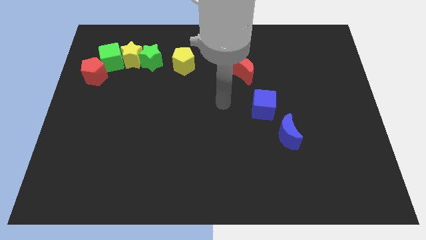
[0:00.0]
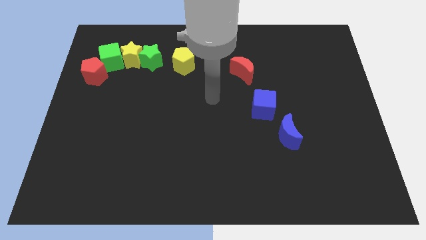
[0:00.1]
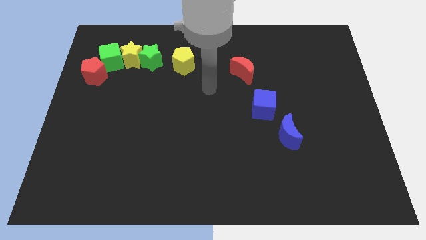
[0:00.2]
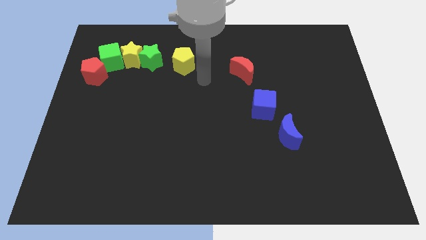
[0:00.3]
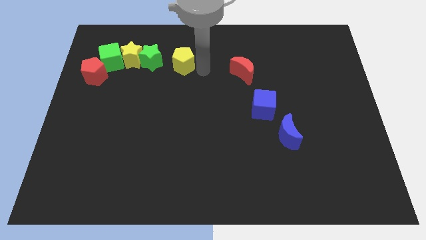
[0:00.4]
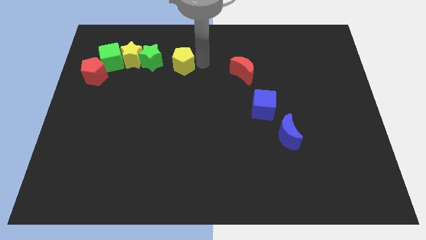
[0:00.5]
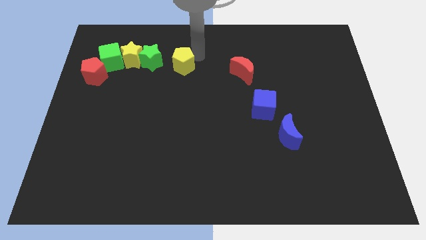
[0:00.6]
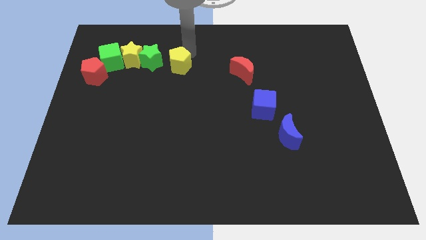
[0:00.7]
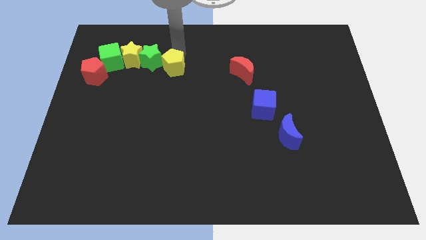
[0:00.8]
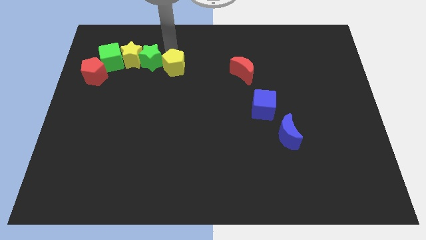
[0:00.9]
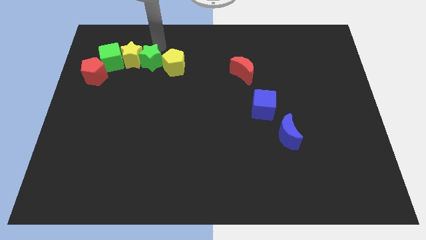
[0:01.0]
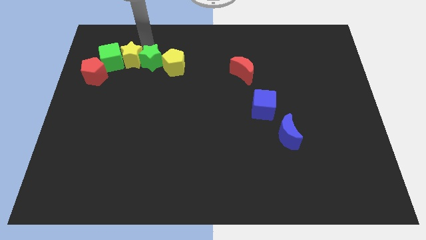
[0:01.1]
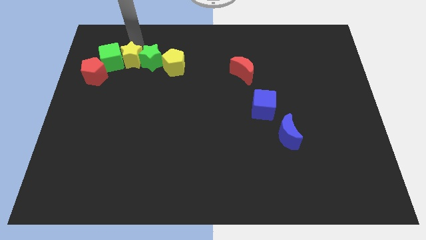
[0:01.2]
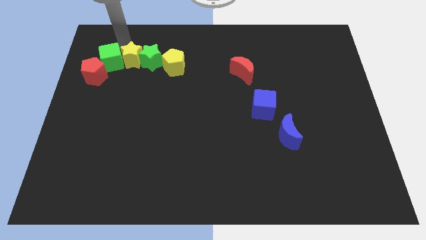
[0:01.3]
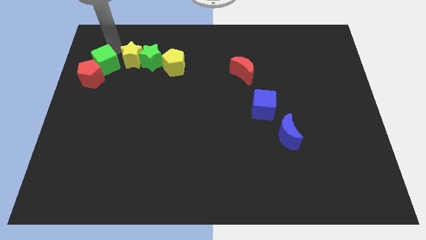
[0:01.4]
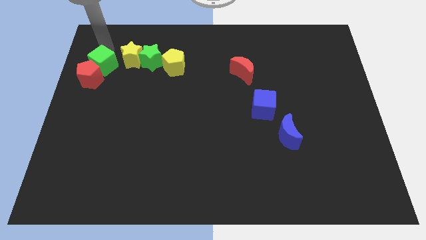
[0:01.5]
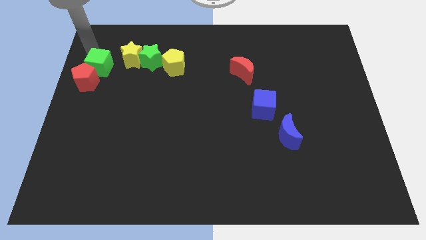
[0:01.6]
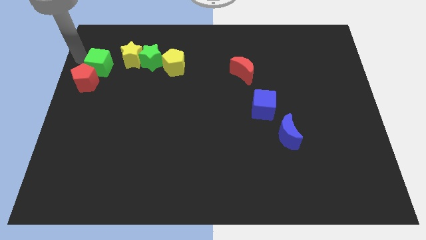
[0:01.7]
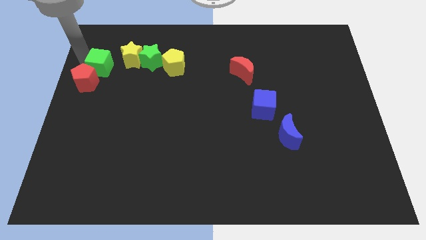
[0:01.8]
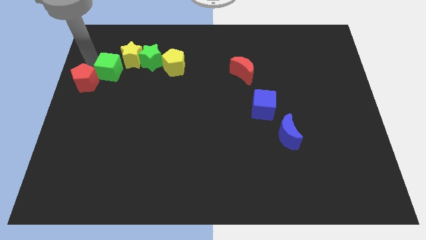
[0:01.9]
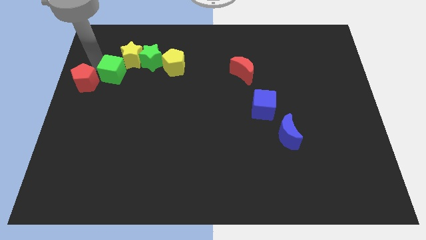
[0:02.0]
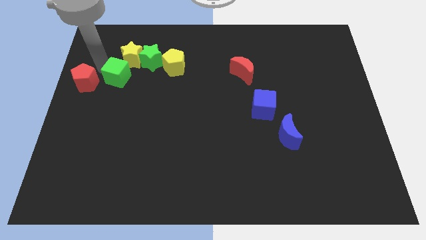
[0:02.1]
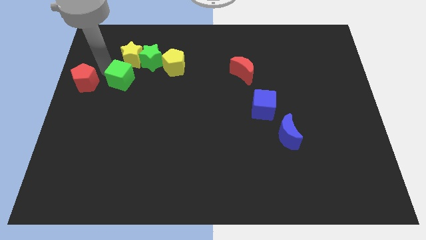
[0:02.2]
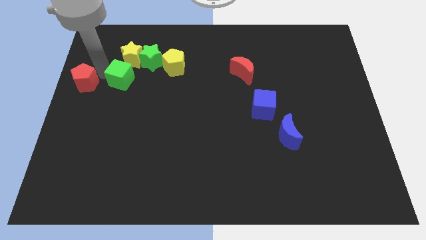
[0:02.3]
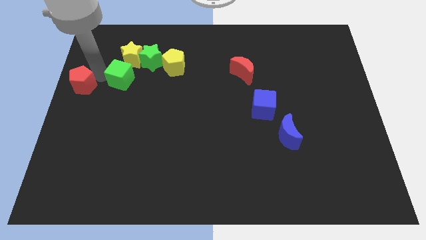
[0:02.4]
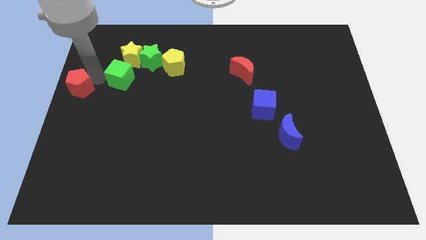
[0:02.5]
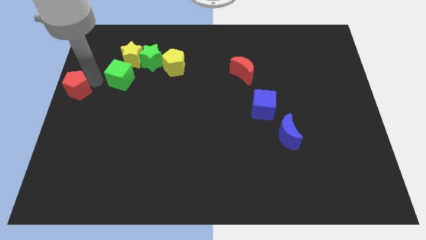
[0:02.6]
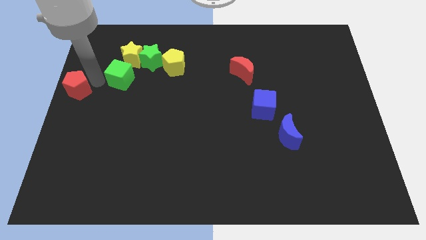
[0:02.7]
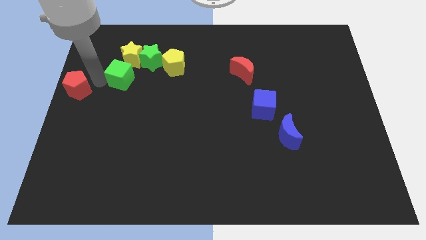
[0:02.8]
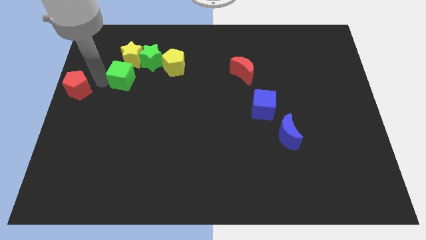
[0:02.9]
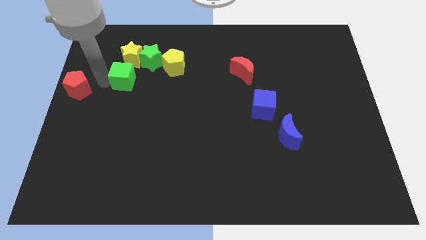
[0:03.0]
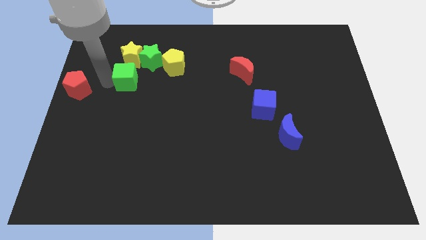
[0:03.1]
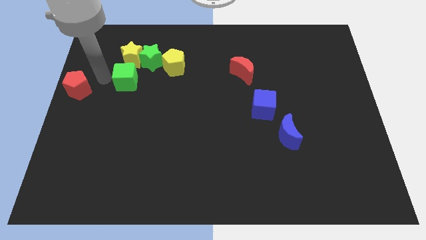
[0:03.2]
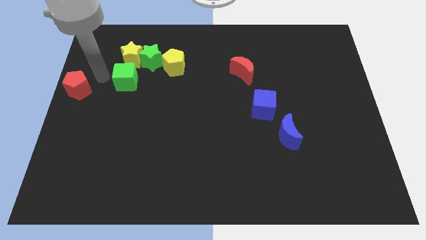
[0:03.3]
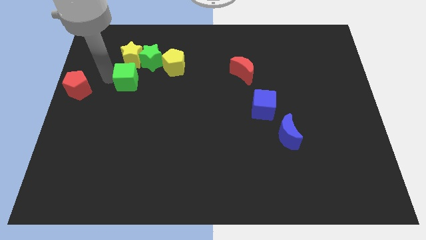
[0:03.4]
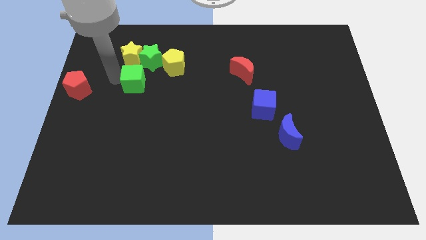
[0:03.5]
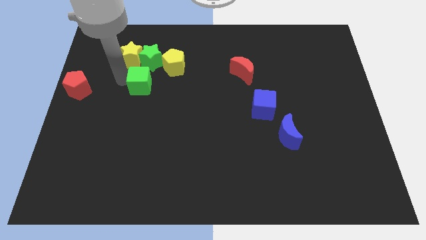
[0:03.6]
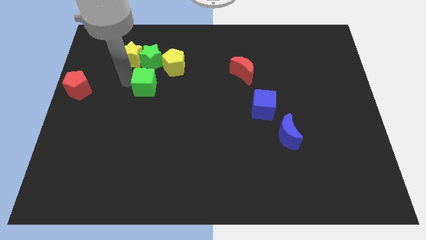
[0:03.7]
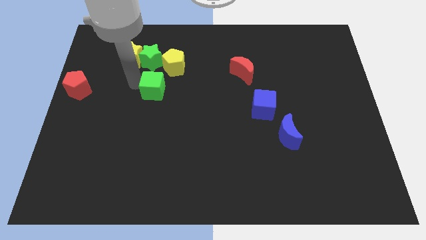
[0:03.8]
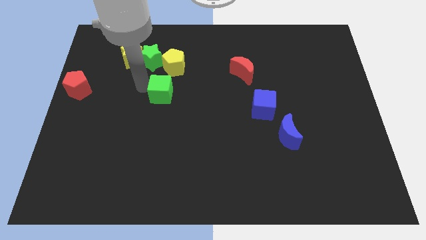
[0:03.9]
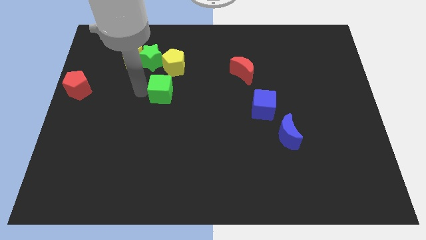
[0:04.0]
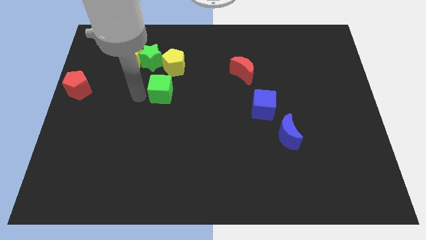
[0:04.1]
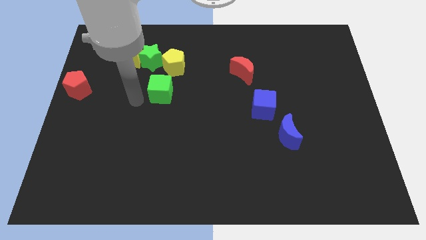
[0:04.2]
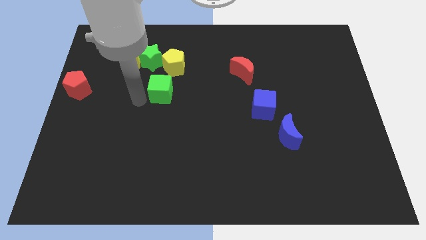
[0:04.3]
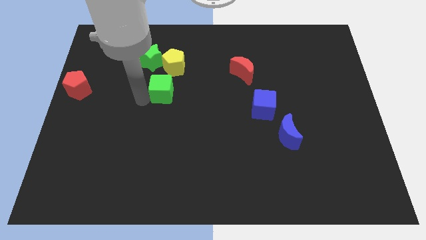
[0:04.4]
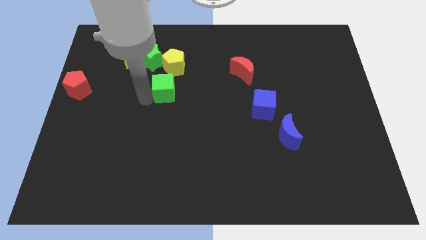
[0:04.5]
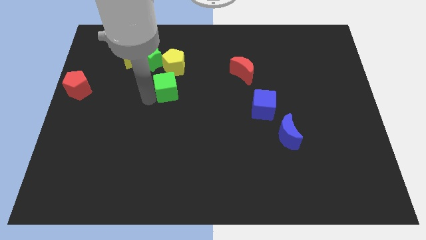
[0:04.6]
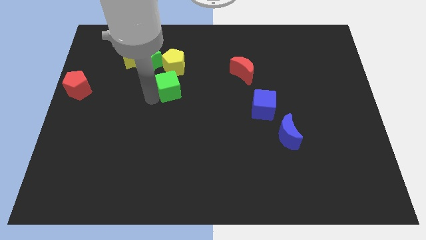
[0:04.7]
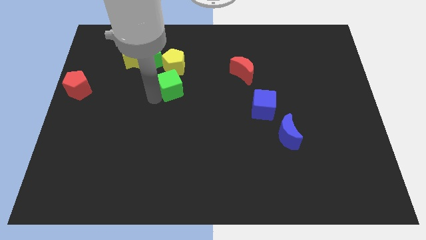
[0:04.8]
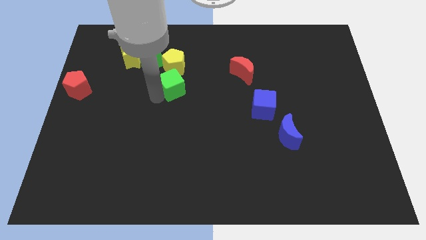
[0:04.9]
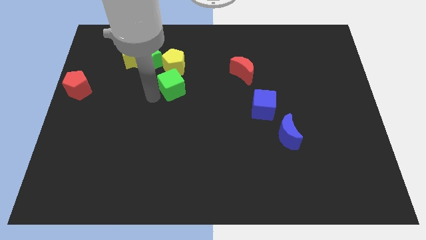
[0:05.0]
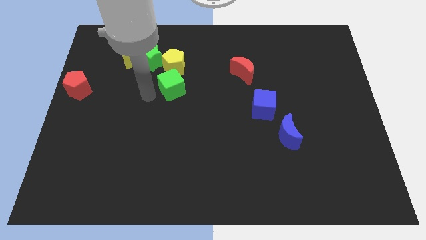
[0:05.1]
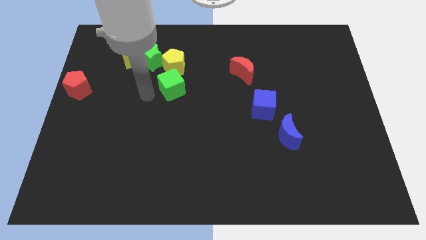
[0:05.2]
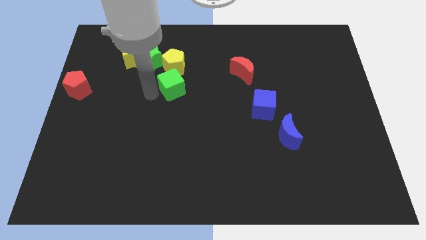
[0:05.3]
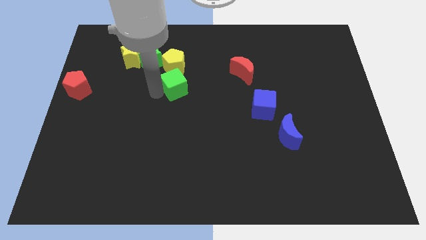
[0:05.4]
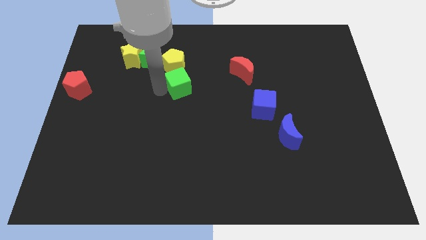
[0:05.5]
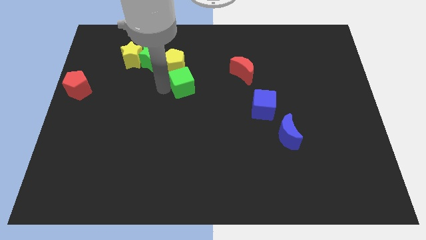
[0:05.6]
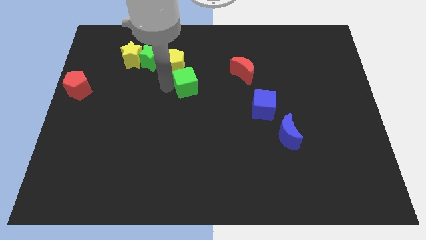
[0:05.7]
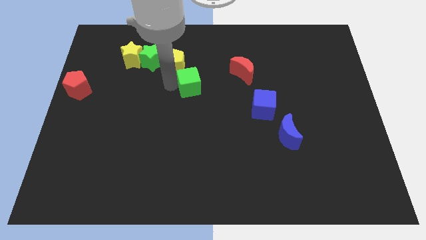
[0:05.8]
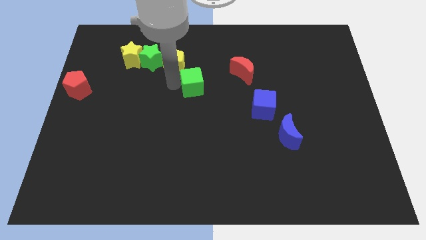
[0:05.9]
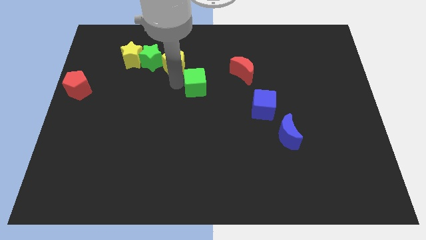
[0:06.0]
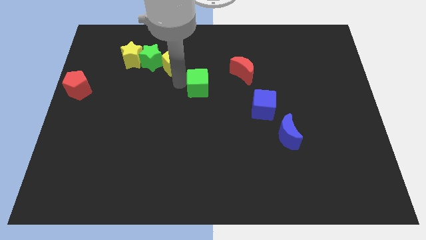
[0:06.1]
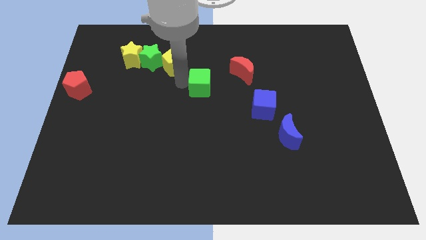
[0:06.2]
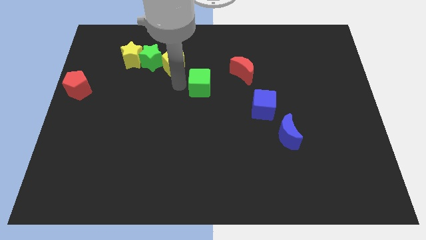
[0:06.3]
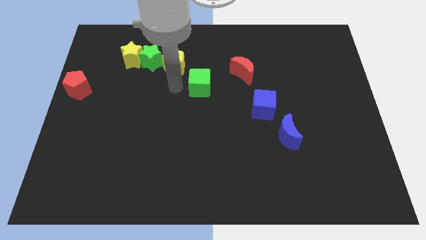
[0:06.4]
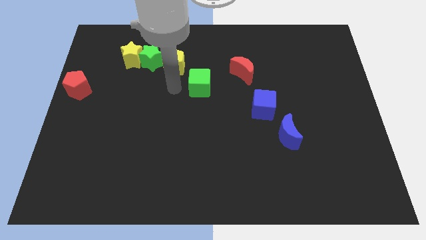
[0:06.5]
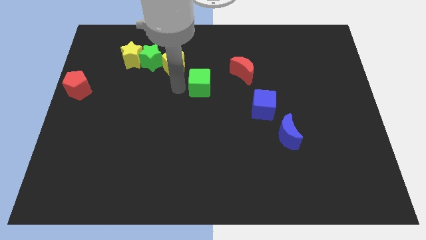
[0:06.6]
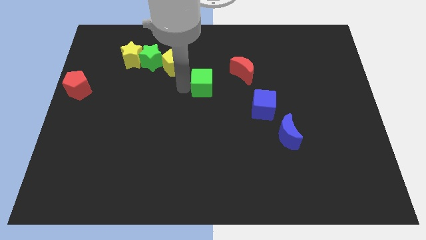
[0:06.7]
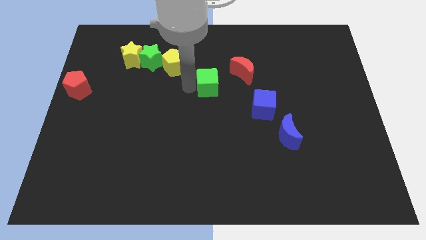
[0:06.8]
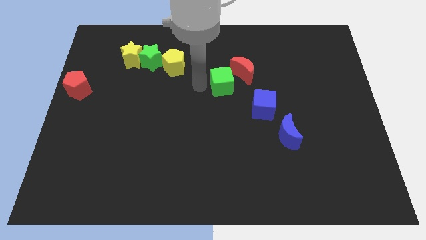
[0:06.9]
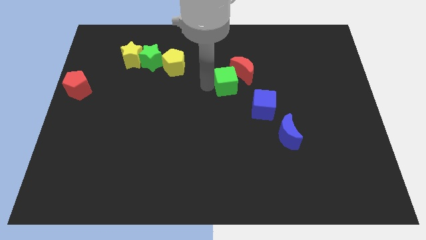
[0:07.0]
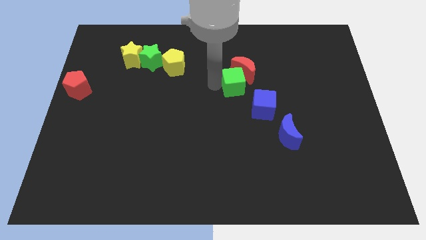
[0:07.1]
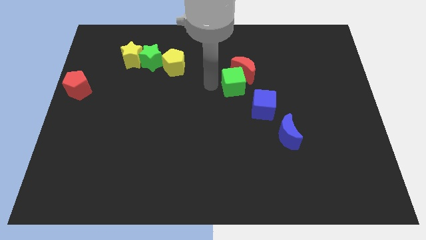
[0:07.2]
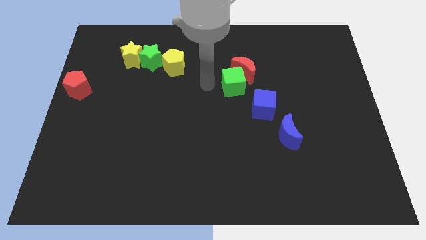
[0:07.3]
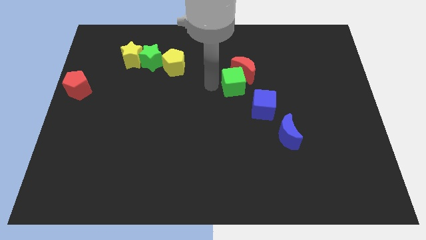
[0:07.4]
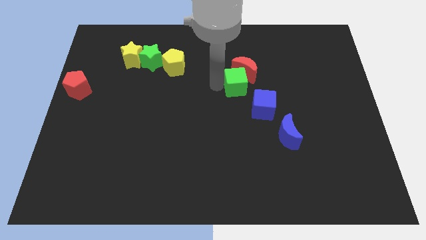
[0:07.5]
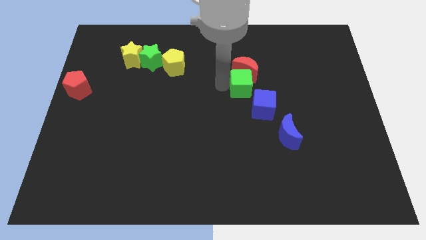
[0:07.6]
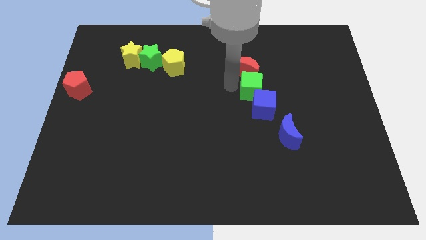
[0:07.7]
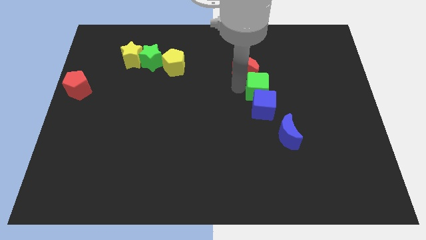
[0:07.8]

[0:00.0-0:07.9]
put the green cube to the top right of the blue cube
